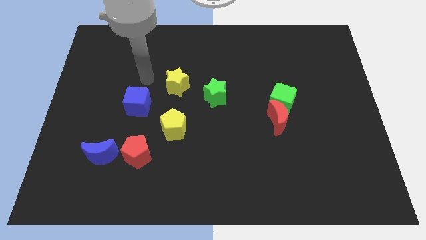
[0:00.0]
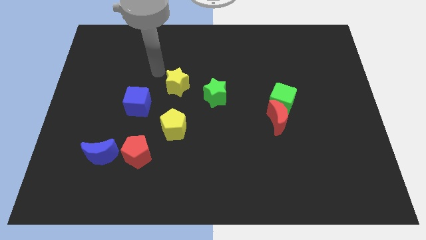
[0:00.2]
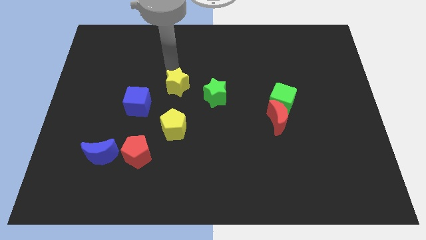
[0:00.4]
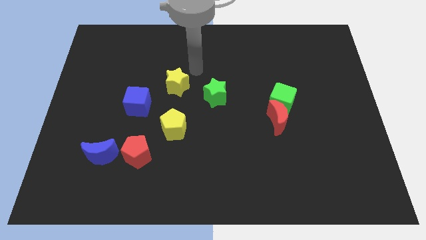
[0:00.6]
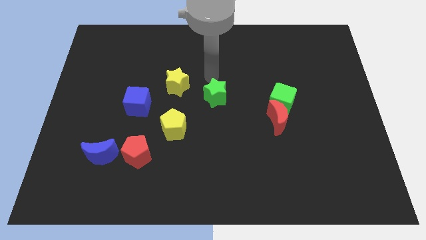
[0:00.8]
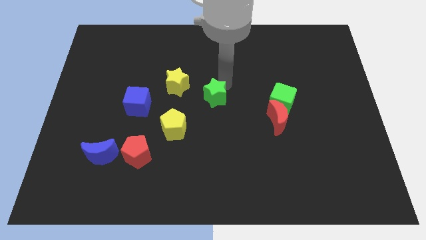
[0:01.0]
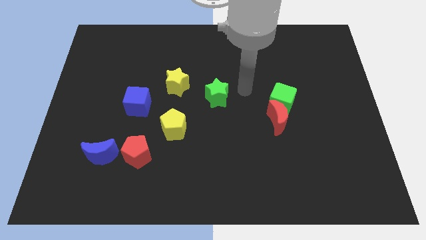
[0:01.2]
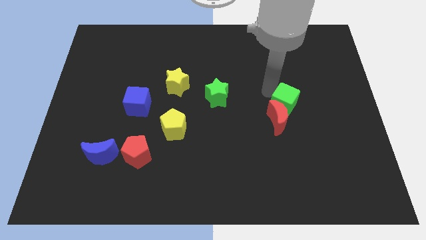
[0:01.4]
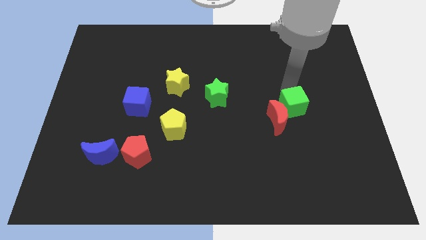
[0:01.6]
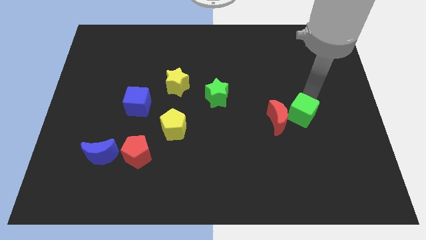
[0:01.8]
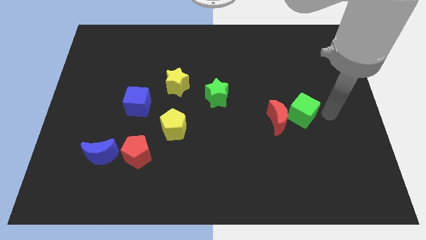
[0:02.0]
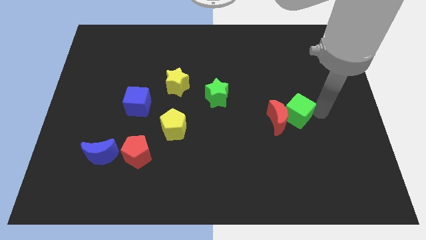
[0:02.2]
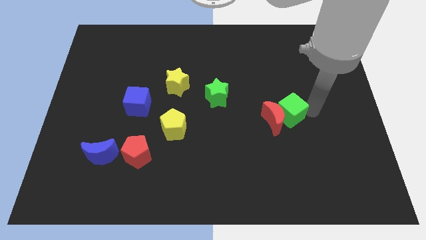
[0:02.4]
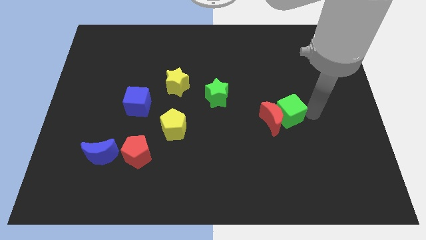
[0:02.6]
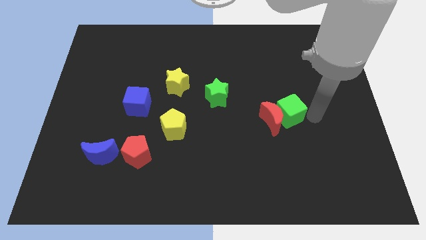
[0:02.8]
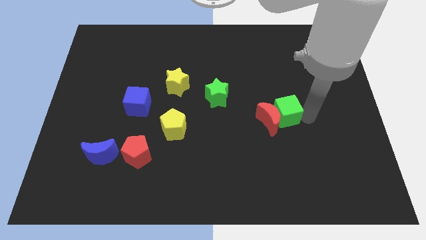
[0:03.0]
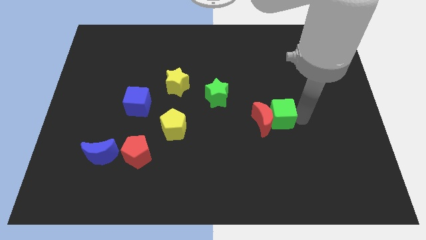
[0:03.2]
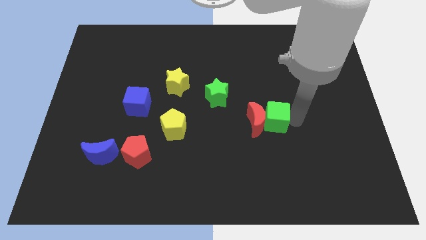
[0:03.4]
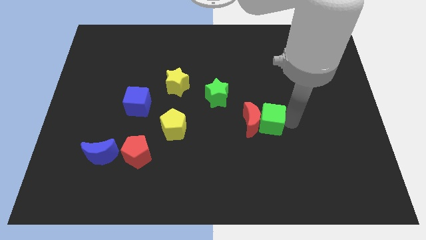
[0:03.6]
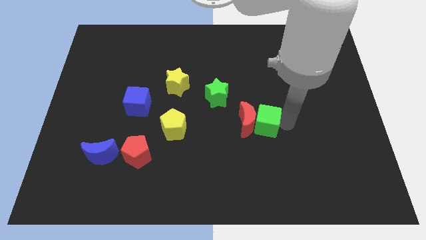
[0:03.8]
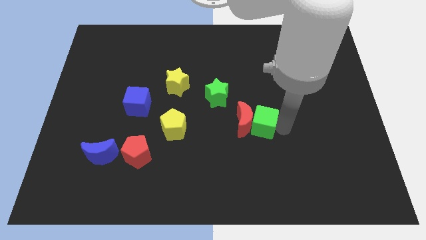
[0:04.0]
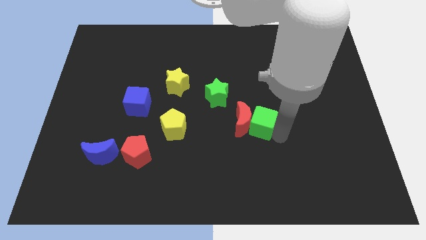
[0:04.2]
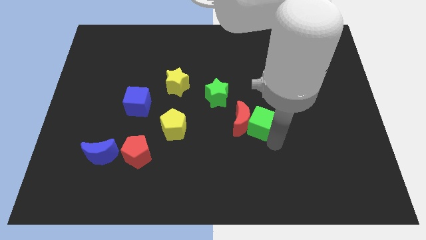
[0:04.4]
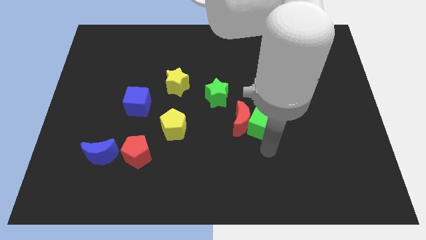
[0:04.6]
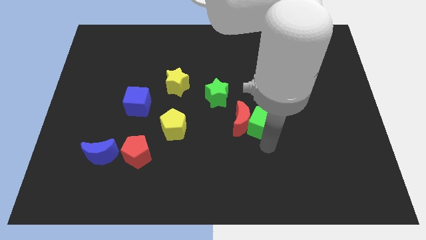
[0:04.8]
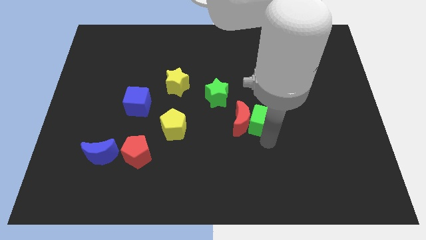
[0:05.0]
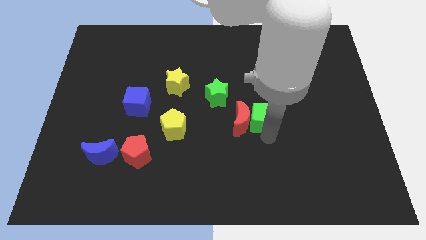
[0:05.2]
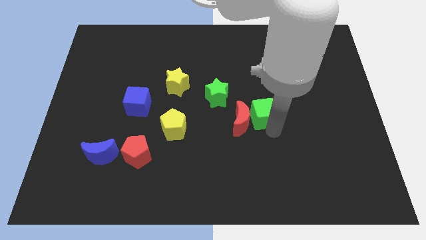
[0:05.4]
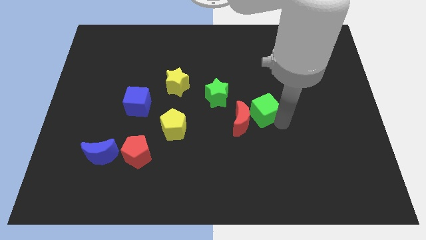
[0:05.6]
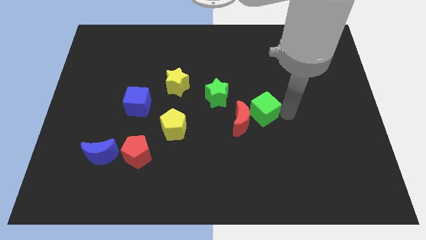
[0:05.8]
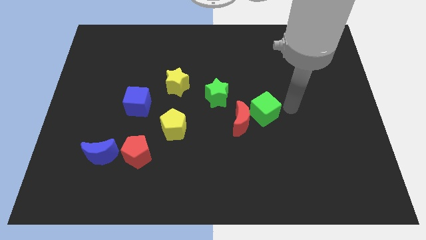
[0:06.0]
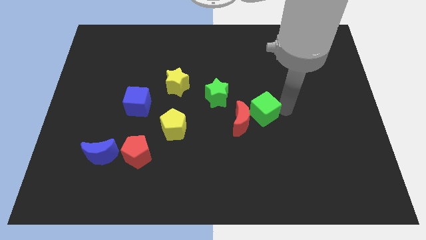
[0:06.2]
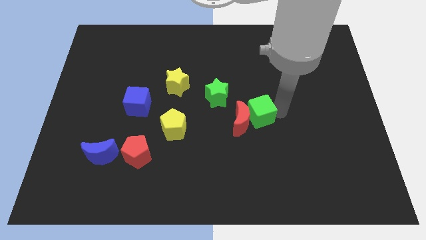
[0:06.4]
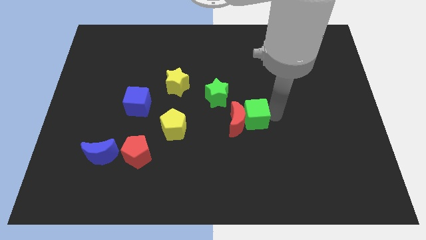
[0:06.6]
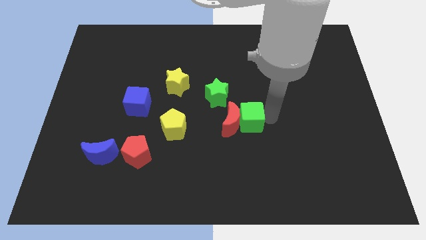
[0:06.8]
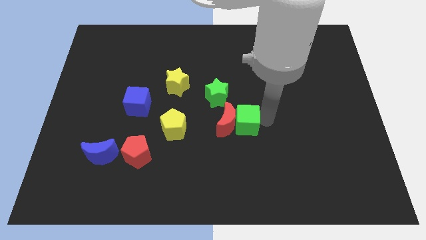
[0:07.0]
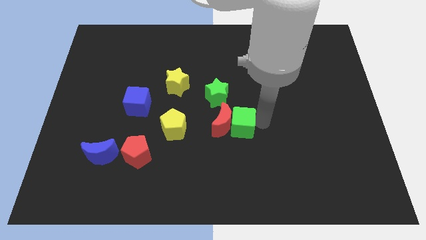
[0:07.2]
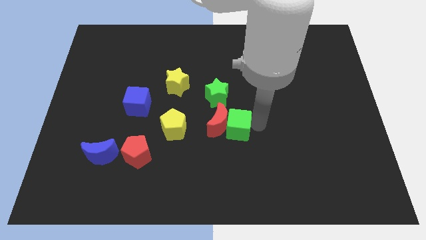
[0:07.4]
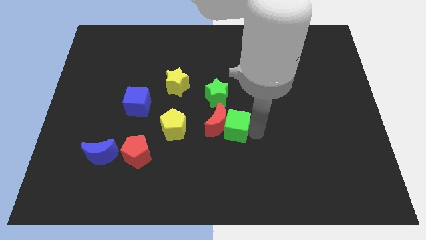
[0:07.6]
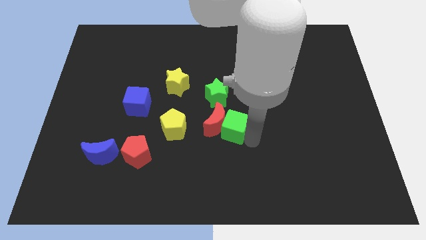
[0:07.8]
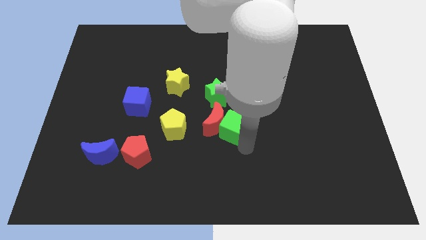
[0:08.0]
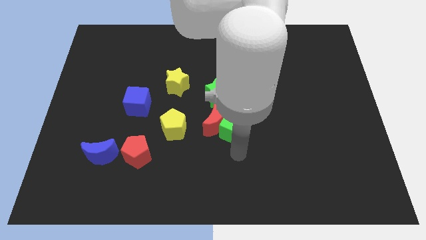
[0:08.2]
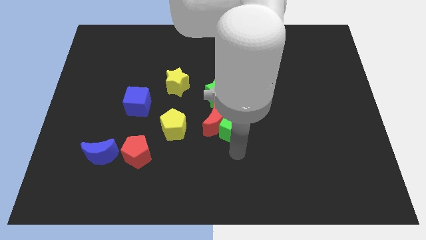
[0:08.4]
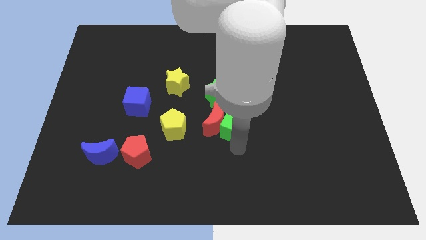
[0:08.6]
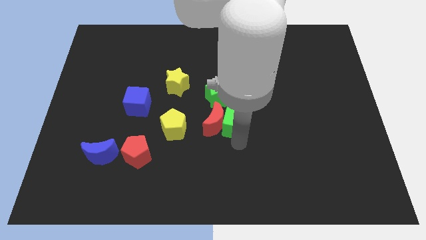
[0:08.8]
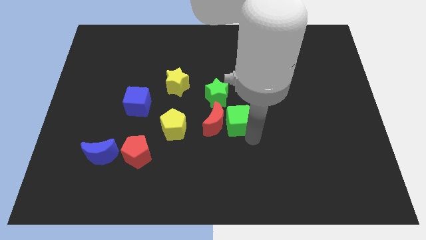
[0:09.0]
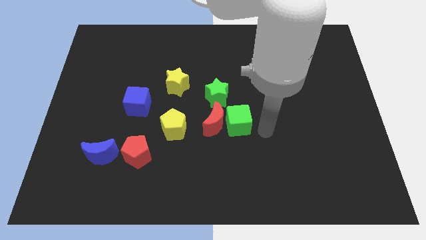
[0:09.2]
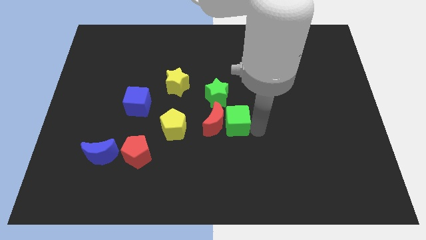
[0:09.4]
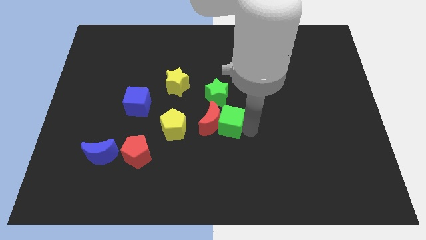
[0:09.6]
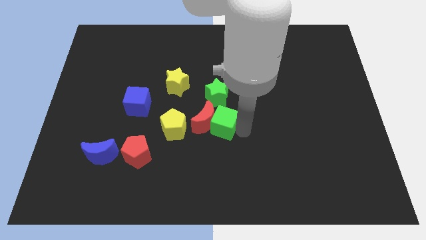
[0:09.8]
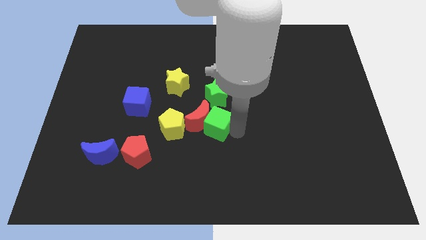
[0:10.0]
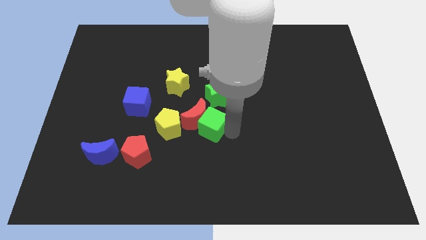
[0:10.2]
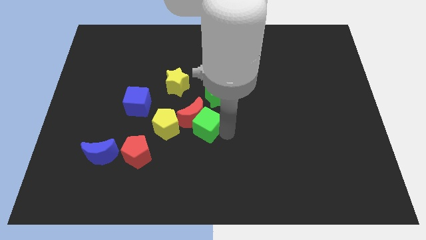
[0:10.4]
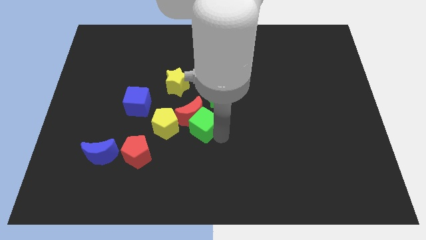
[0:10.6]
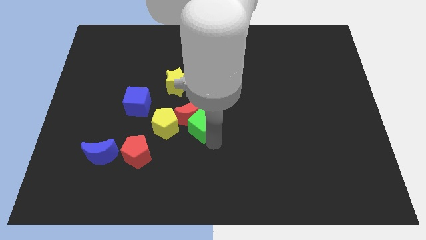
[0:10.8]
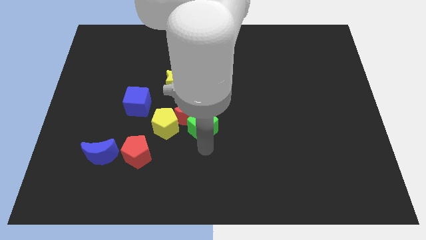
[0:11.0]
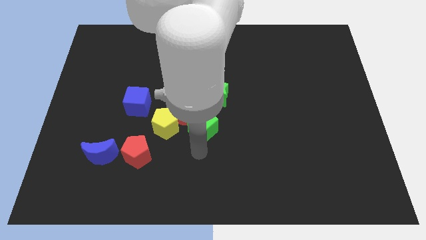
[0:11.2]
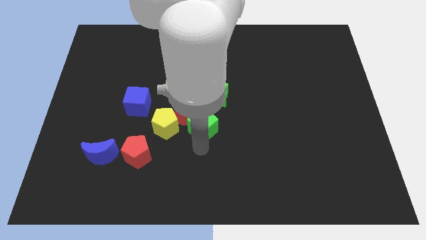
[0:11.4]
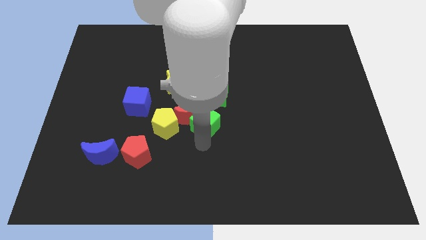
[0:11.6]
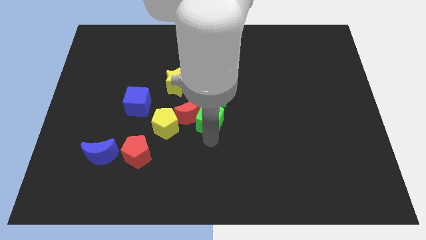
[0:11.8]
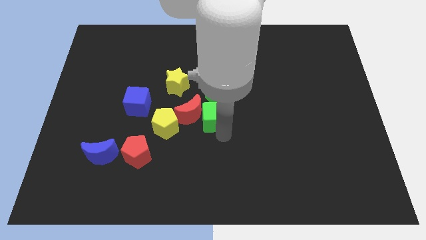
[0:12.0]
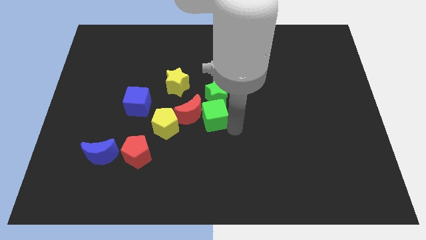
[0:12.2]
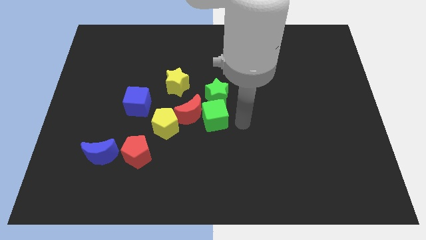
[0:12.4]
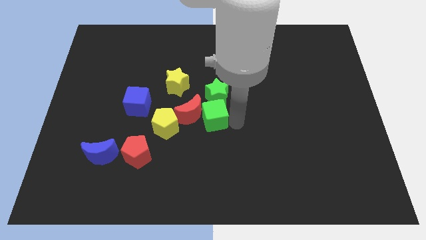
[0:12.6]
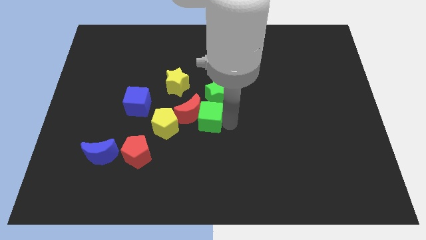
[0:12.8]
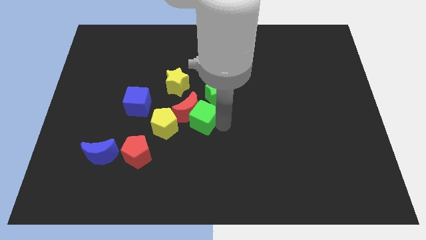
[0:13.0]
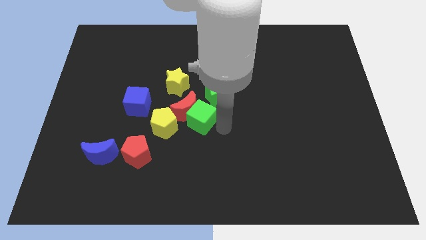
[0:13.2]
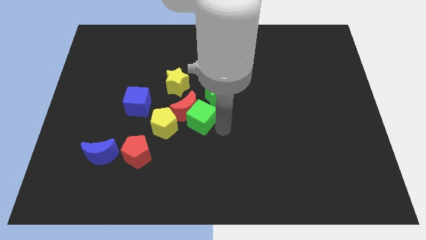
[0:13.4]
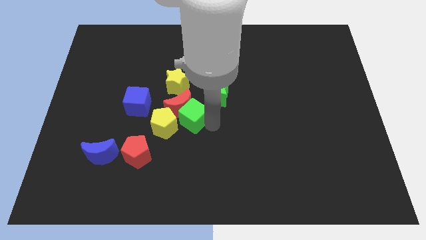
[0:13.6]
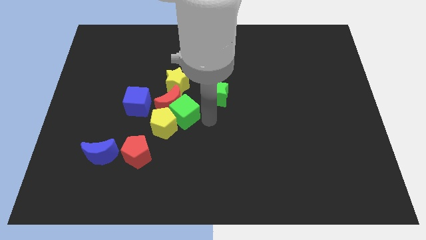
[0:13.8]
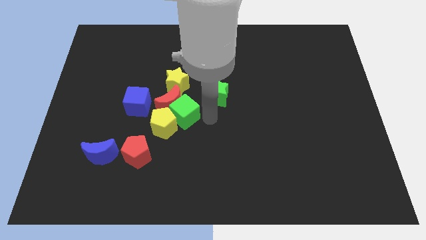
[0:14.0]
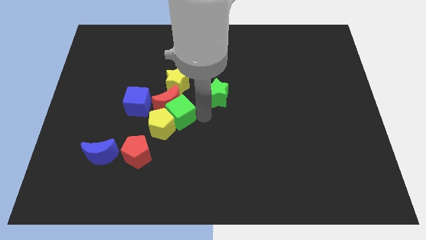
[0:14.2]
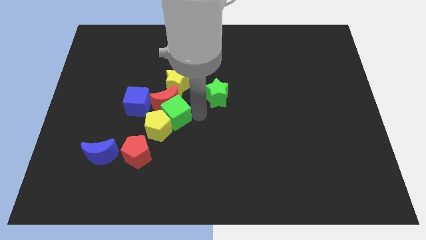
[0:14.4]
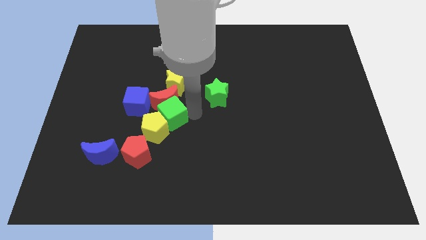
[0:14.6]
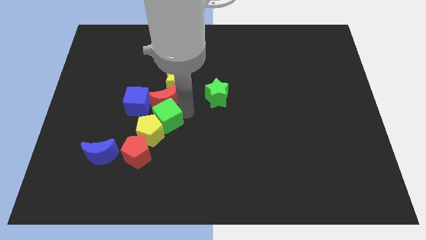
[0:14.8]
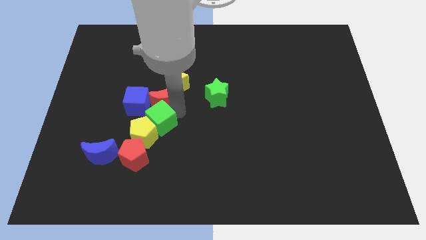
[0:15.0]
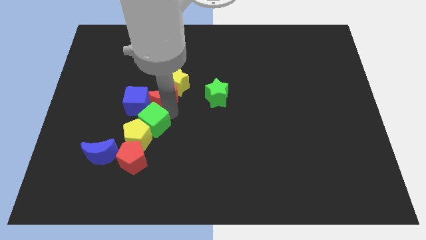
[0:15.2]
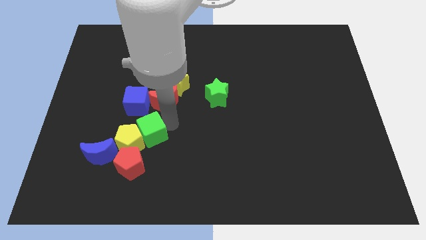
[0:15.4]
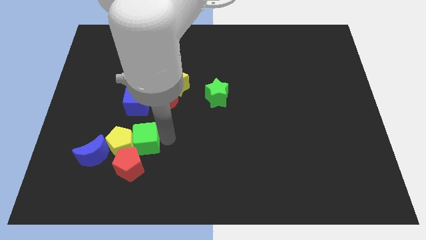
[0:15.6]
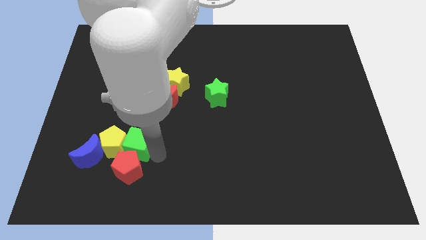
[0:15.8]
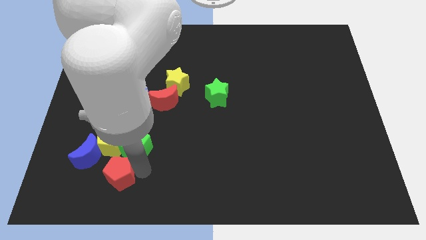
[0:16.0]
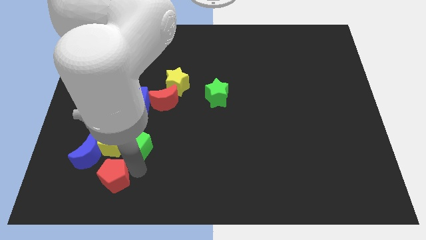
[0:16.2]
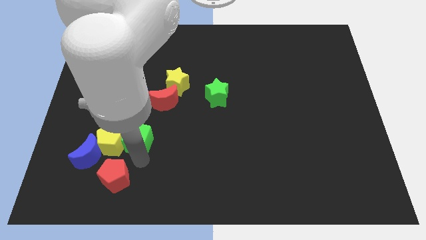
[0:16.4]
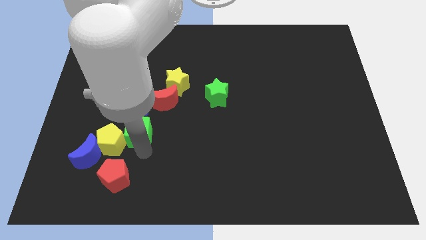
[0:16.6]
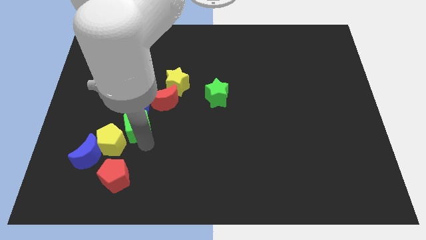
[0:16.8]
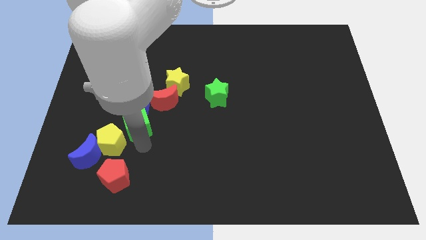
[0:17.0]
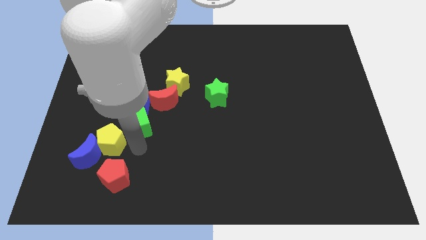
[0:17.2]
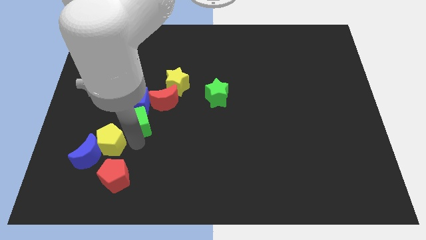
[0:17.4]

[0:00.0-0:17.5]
move the green cube close to the blue cube
